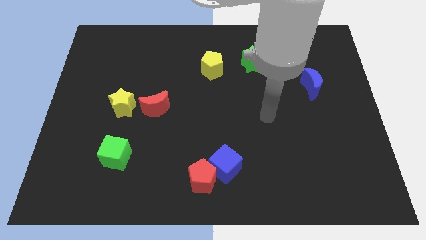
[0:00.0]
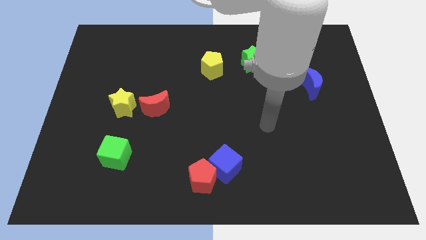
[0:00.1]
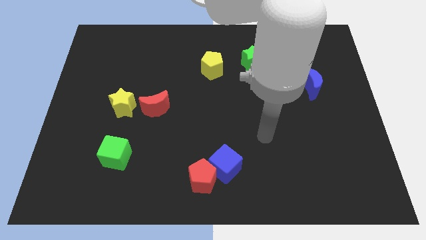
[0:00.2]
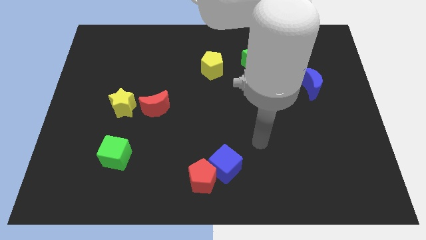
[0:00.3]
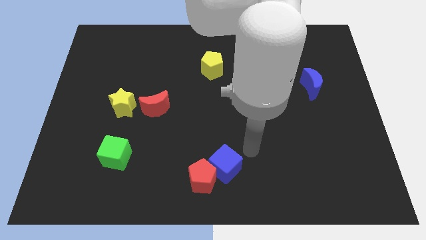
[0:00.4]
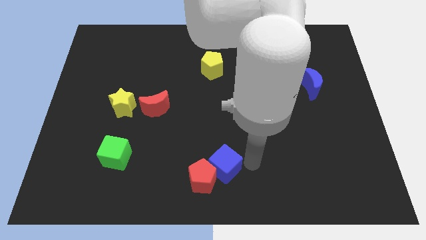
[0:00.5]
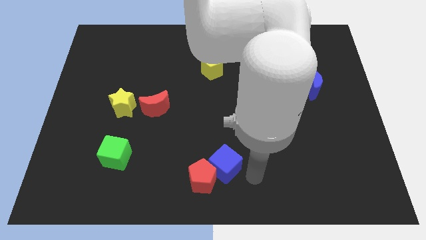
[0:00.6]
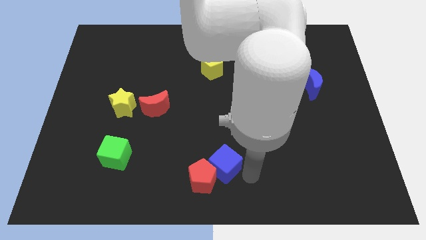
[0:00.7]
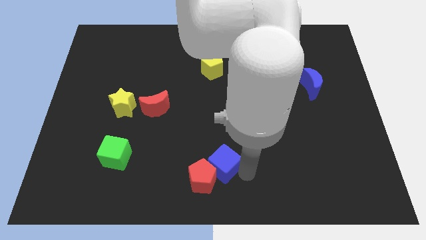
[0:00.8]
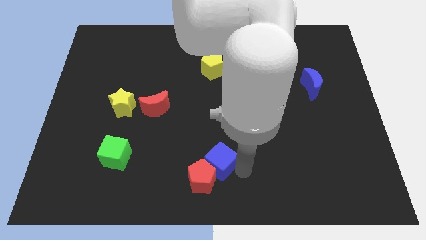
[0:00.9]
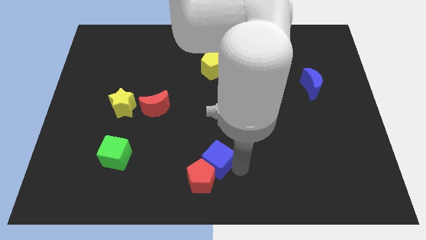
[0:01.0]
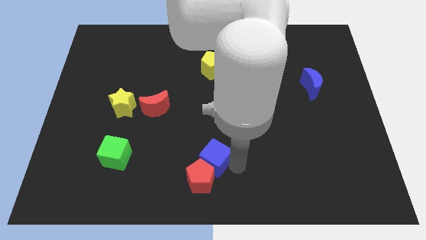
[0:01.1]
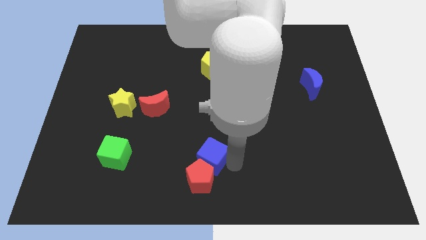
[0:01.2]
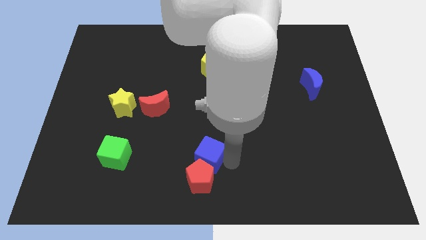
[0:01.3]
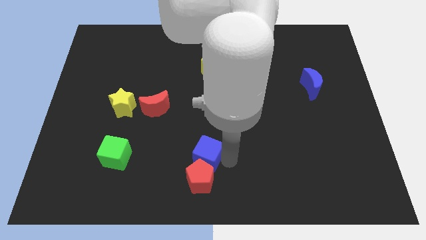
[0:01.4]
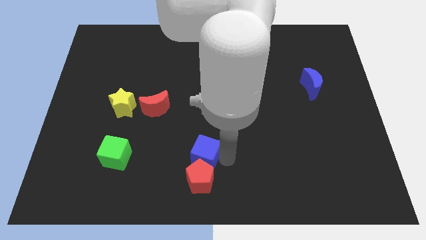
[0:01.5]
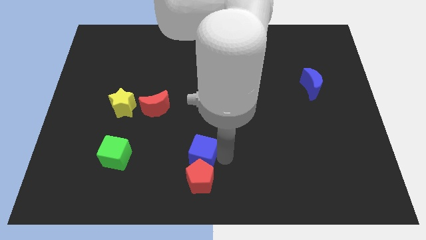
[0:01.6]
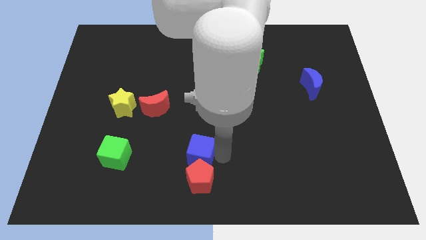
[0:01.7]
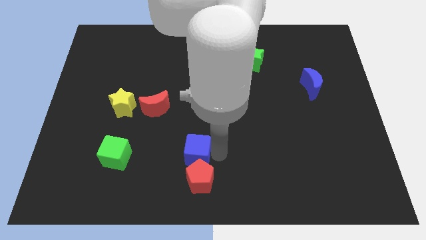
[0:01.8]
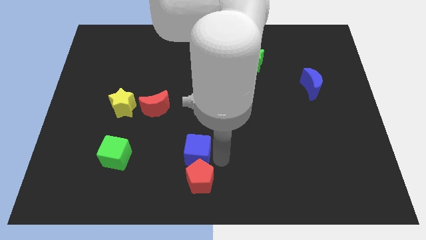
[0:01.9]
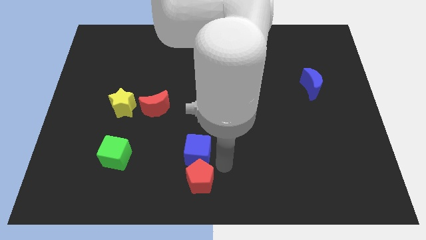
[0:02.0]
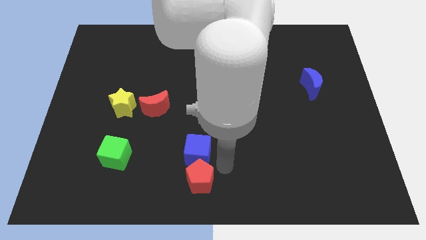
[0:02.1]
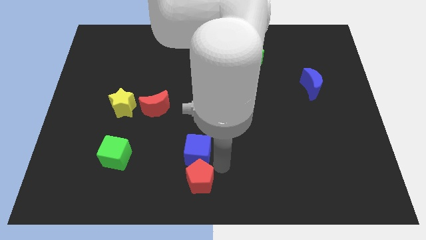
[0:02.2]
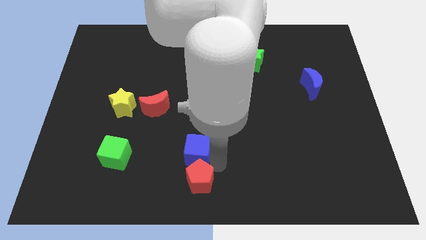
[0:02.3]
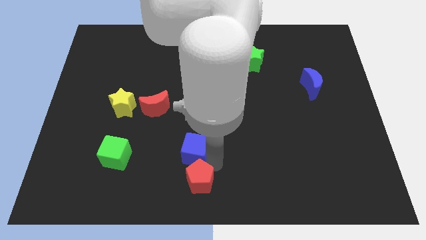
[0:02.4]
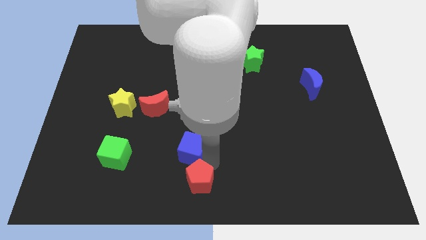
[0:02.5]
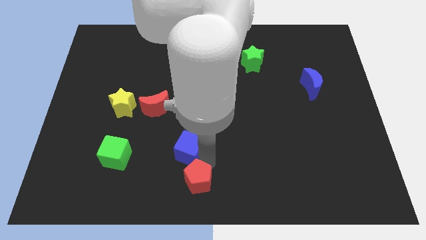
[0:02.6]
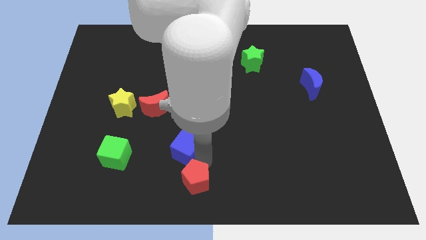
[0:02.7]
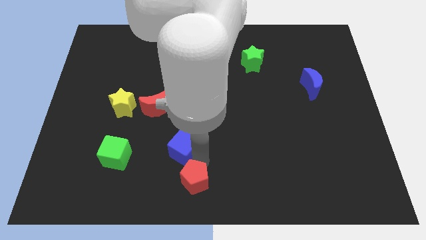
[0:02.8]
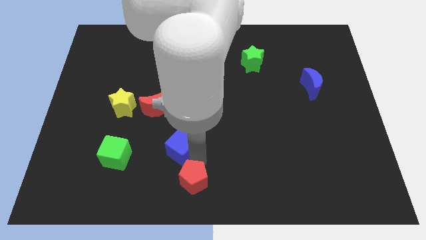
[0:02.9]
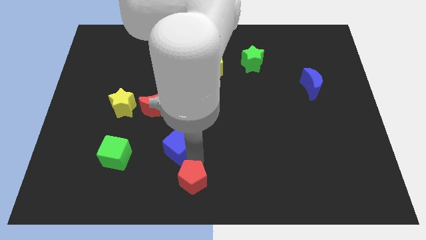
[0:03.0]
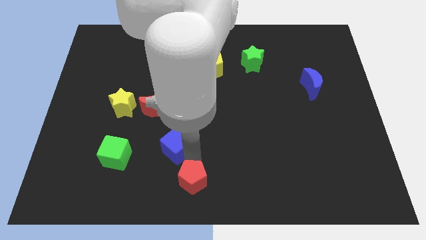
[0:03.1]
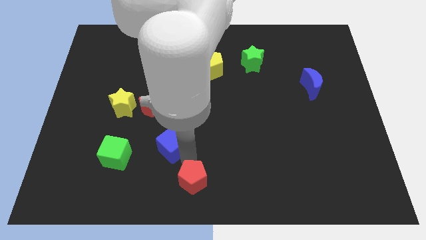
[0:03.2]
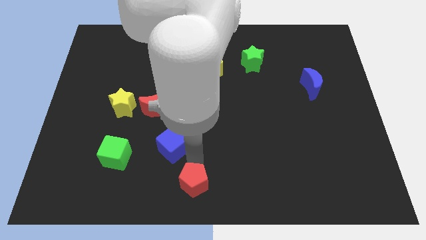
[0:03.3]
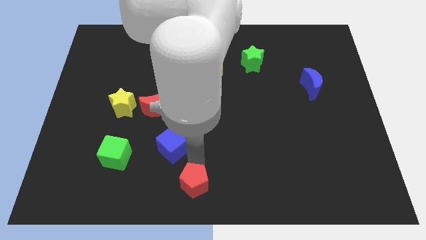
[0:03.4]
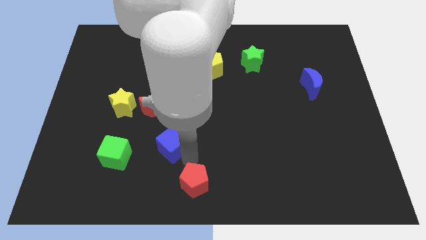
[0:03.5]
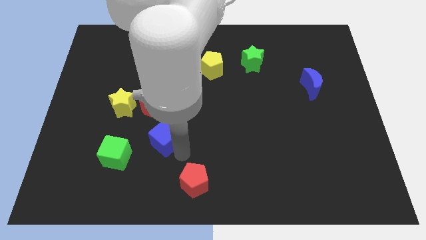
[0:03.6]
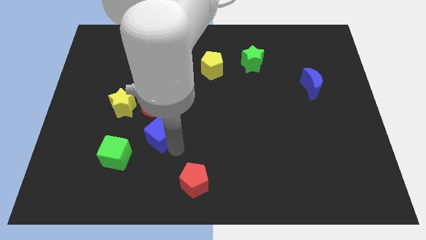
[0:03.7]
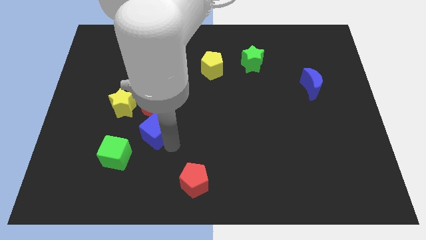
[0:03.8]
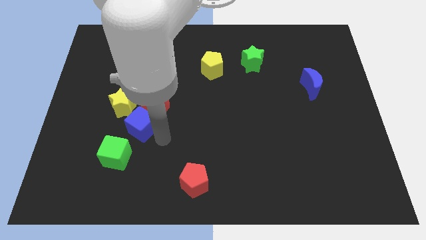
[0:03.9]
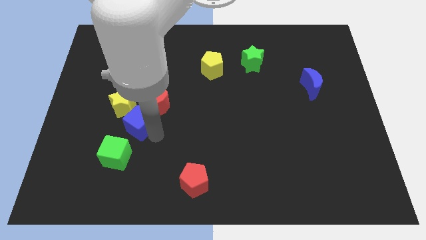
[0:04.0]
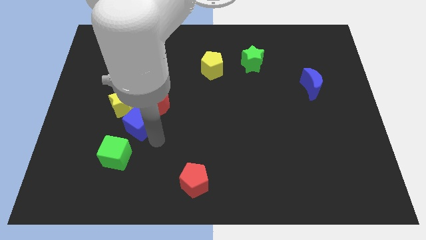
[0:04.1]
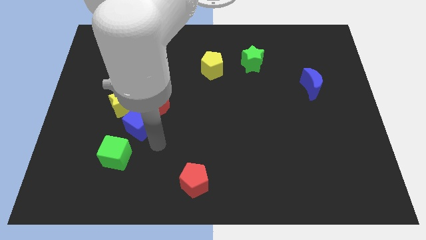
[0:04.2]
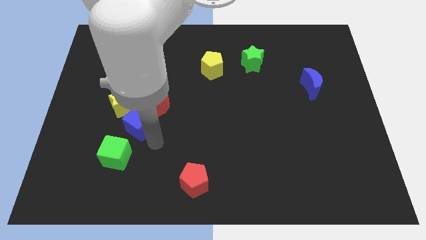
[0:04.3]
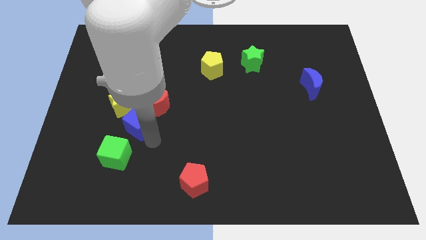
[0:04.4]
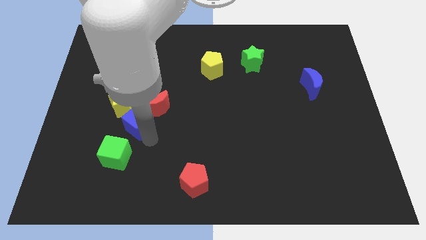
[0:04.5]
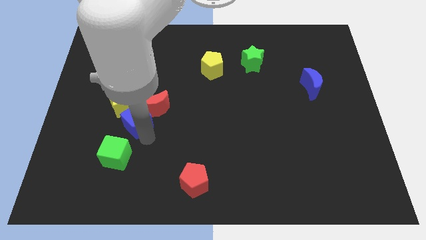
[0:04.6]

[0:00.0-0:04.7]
move the blue cube next to the yellow star

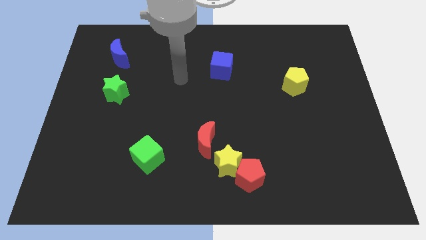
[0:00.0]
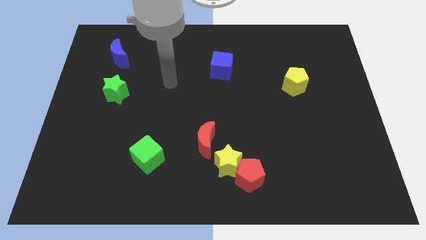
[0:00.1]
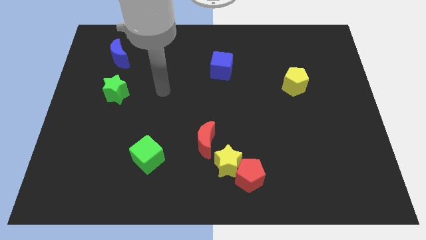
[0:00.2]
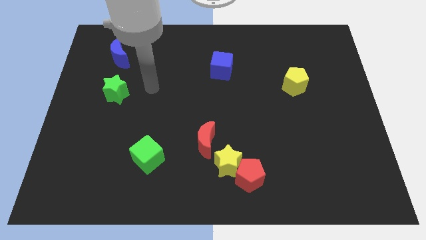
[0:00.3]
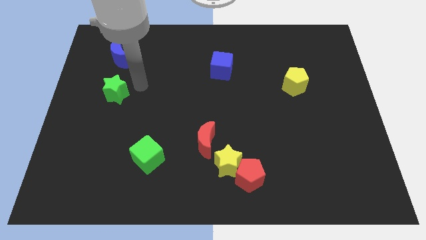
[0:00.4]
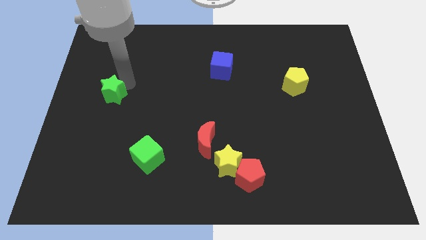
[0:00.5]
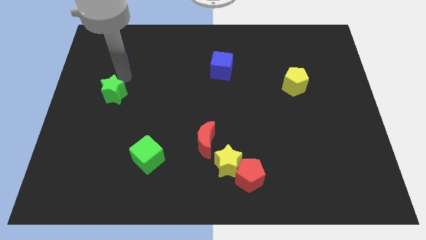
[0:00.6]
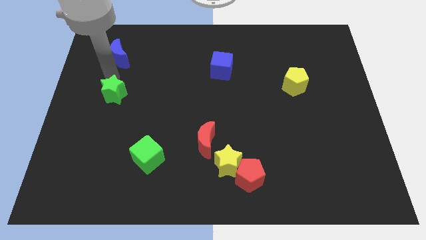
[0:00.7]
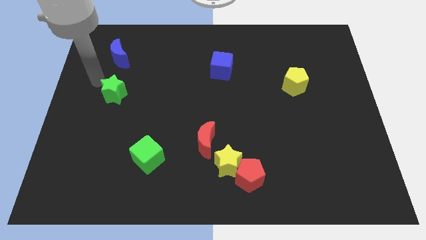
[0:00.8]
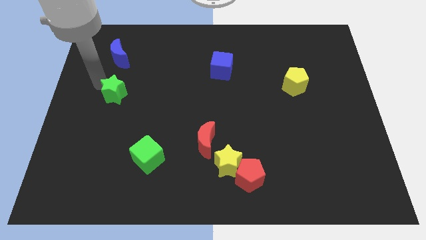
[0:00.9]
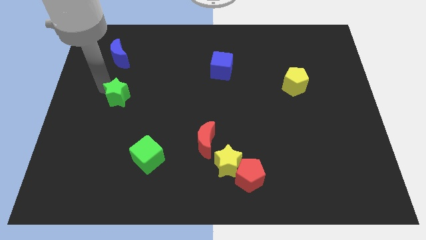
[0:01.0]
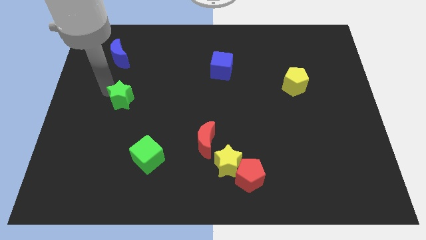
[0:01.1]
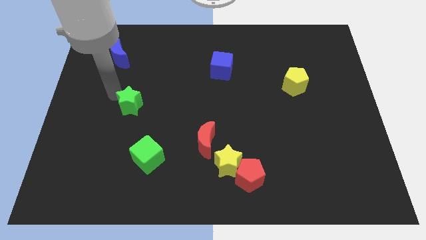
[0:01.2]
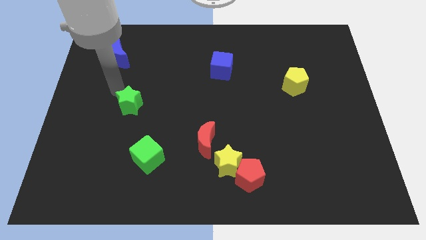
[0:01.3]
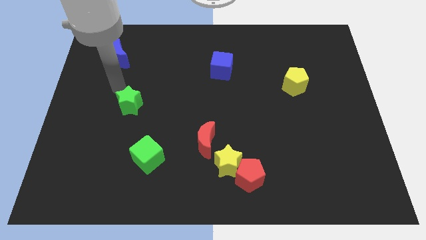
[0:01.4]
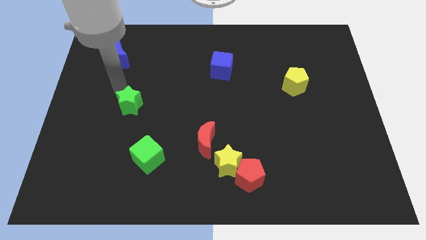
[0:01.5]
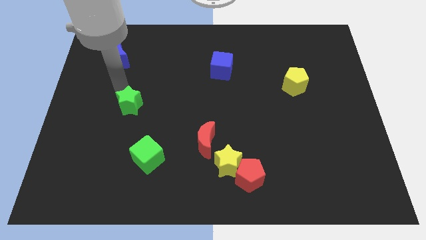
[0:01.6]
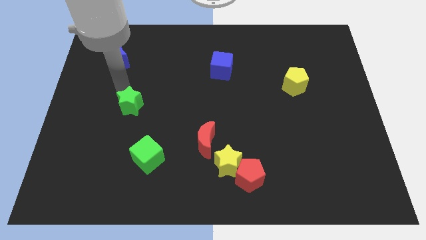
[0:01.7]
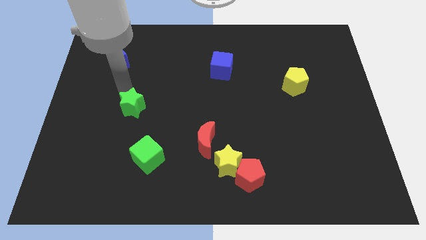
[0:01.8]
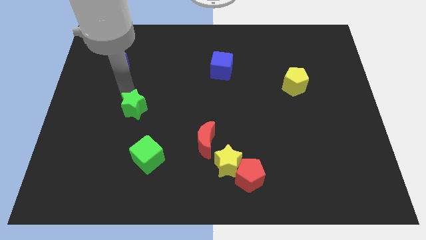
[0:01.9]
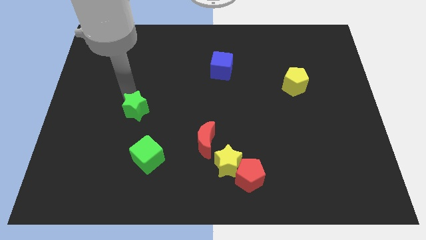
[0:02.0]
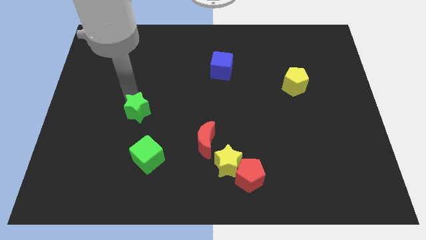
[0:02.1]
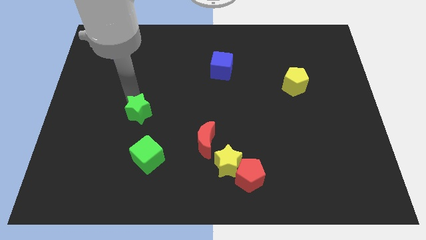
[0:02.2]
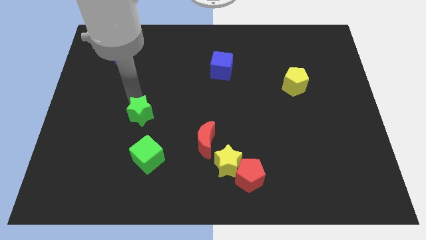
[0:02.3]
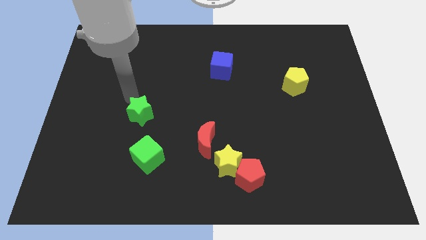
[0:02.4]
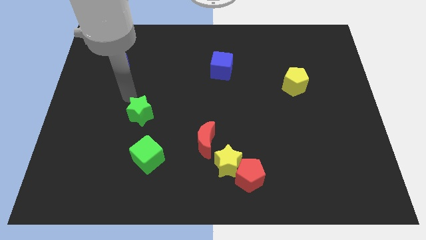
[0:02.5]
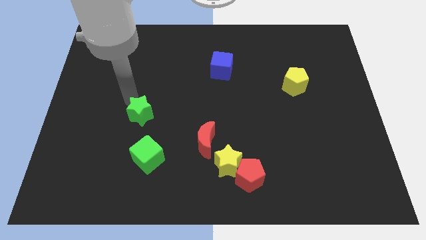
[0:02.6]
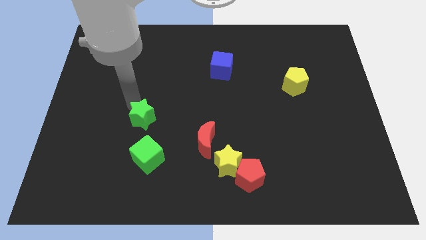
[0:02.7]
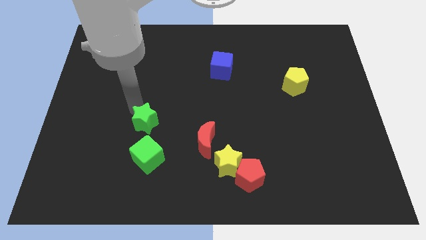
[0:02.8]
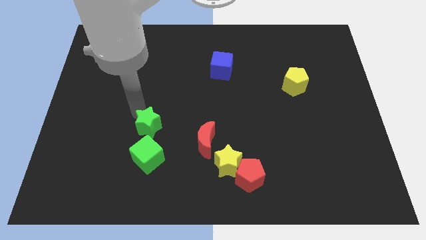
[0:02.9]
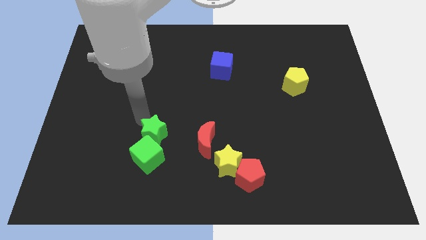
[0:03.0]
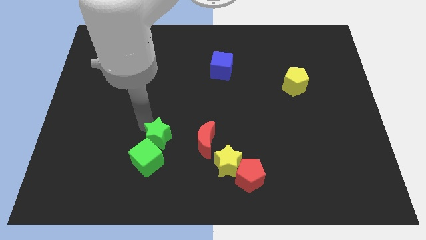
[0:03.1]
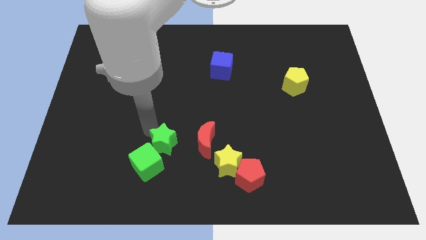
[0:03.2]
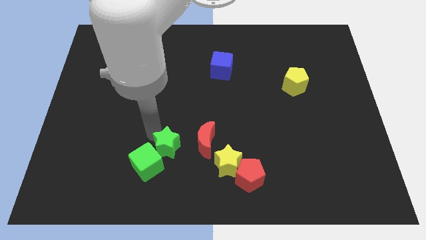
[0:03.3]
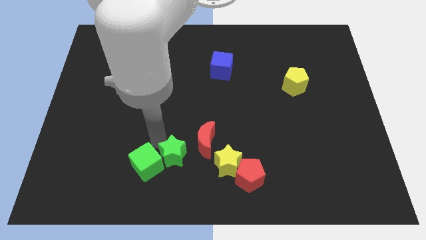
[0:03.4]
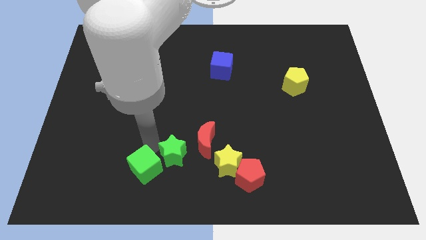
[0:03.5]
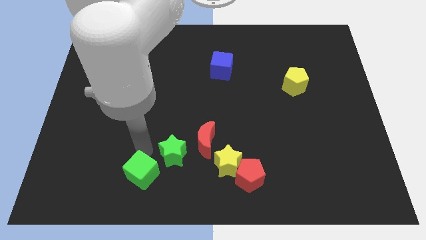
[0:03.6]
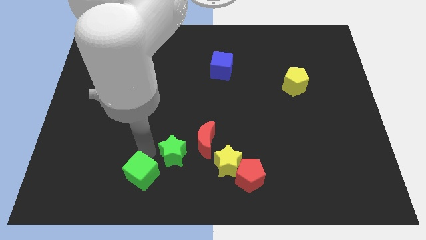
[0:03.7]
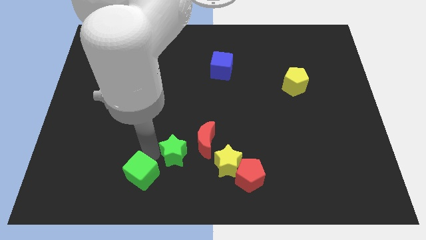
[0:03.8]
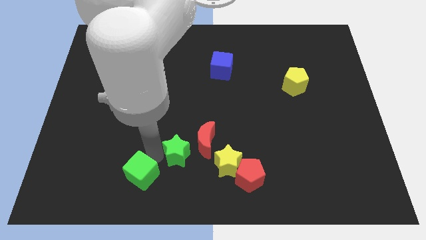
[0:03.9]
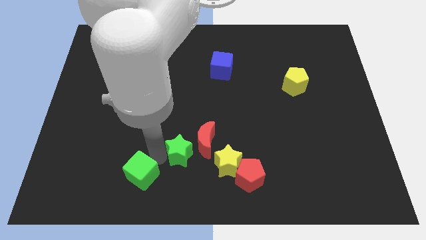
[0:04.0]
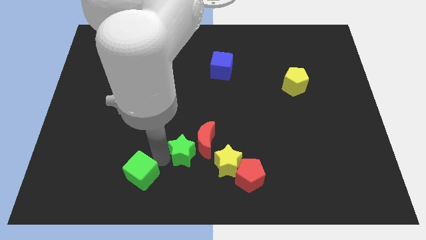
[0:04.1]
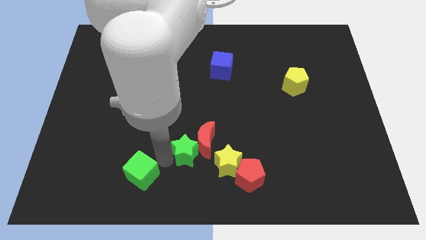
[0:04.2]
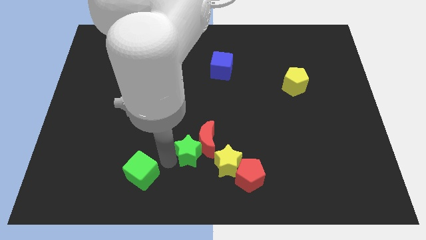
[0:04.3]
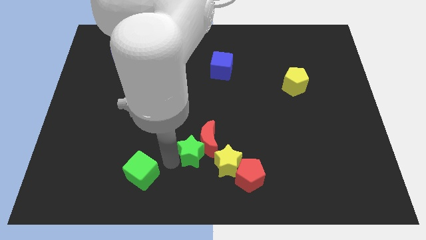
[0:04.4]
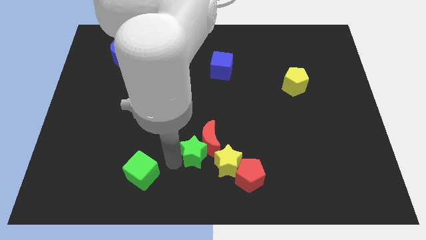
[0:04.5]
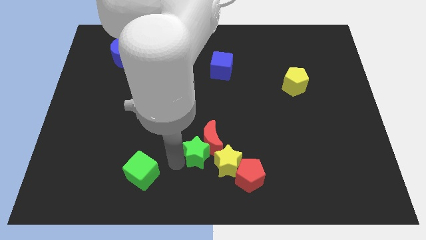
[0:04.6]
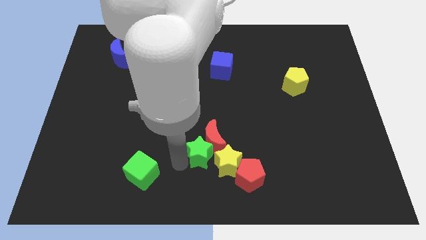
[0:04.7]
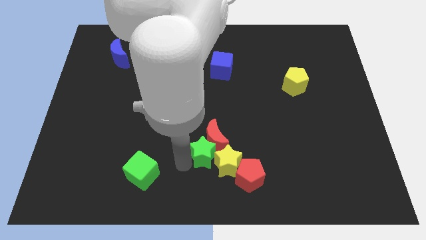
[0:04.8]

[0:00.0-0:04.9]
put the green star to the yellow star
